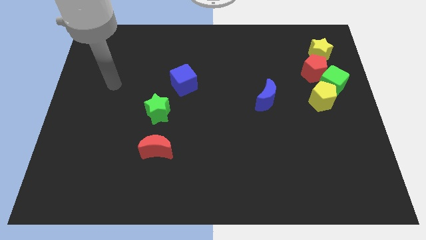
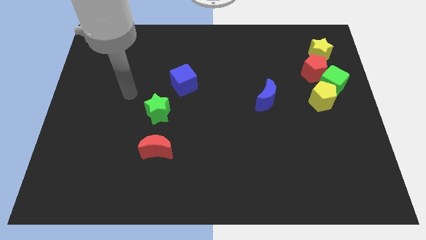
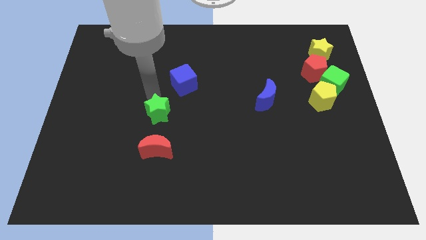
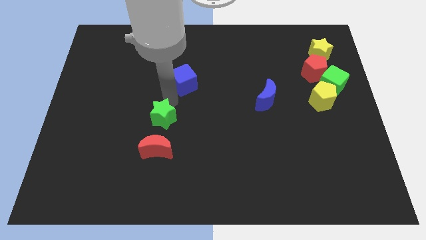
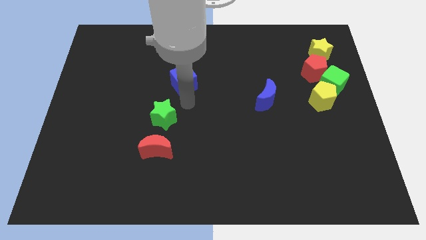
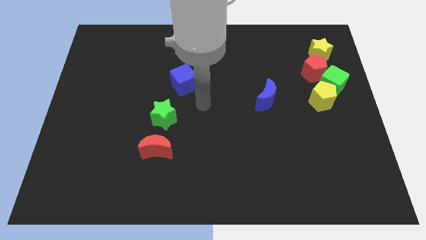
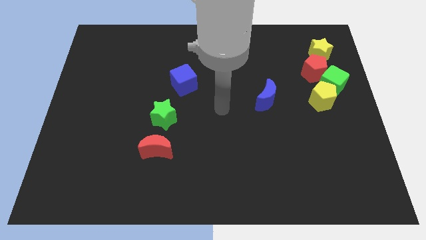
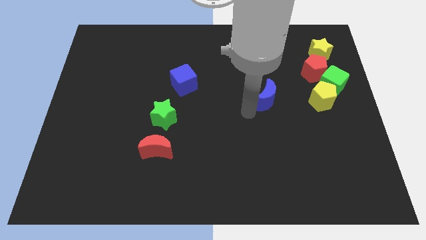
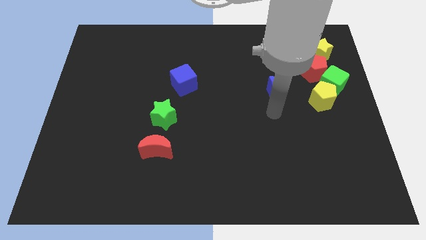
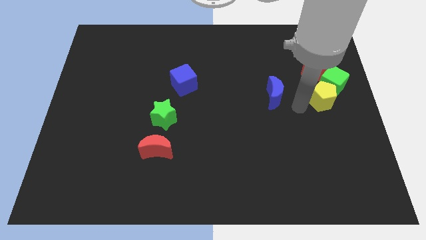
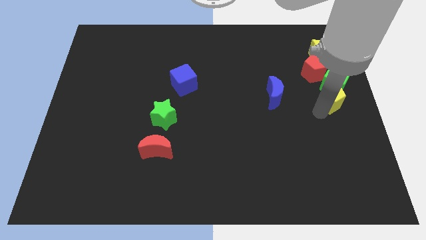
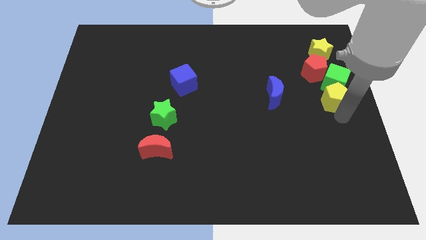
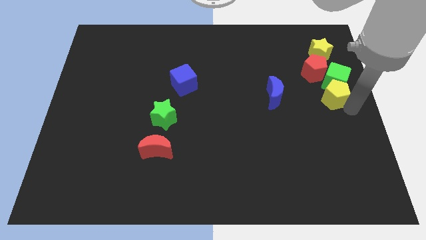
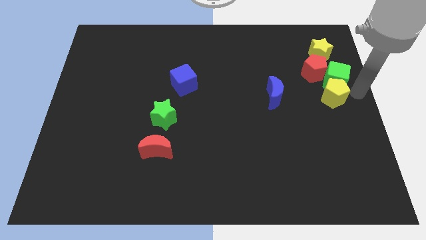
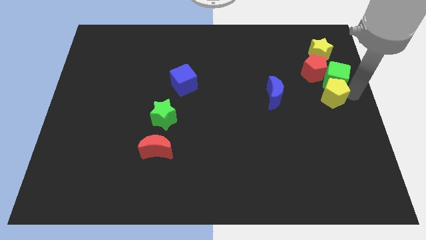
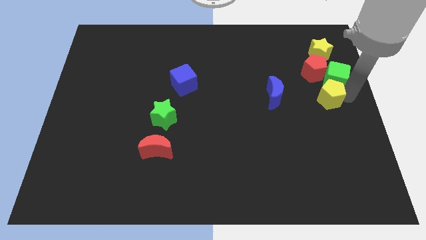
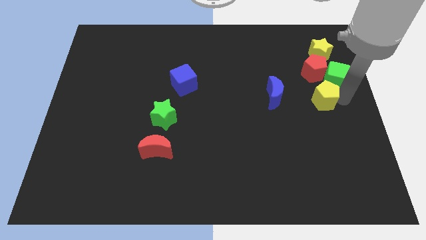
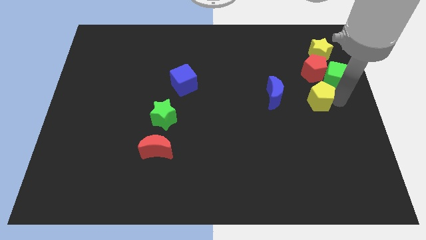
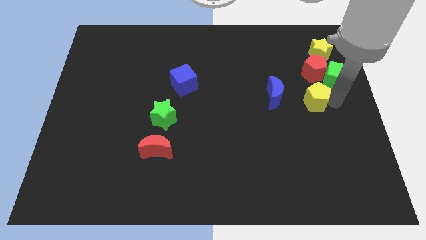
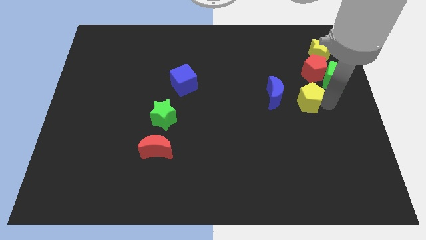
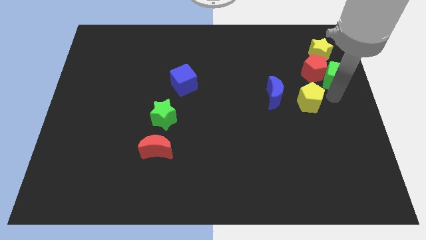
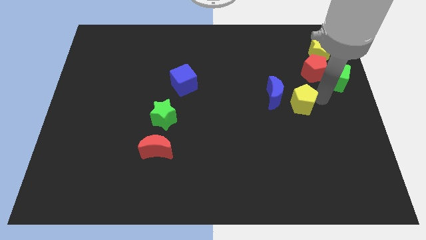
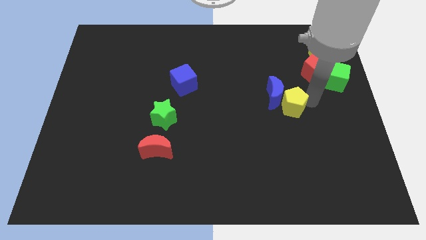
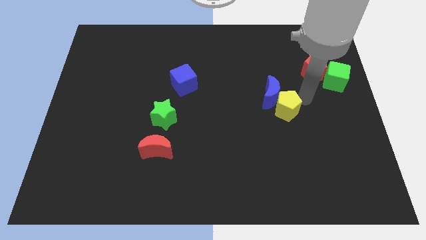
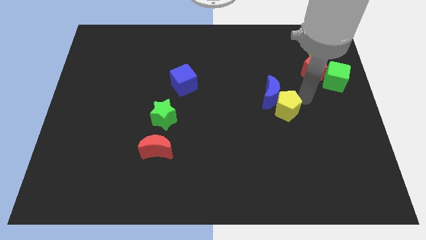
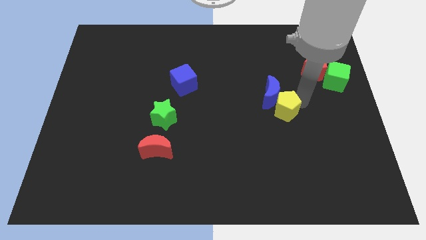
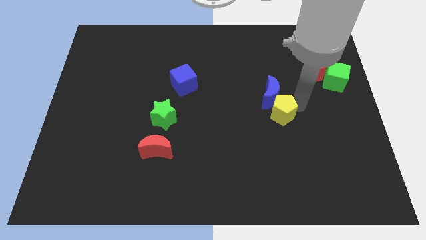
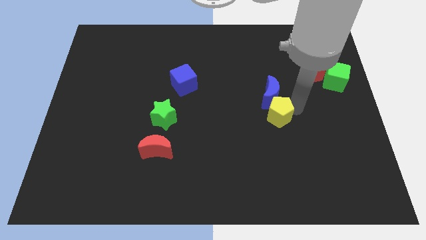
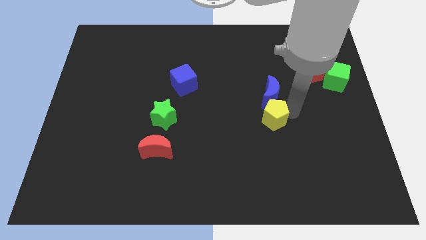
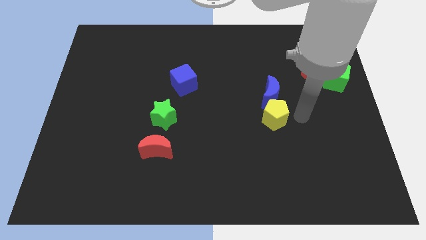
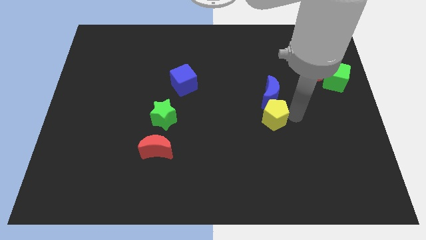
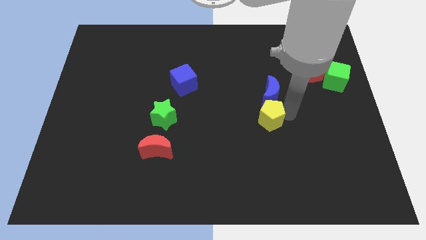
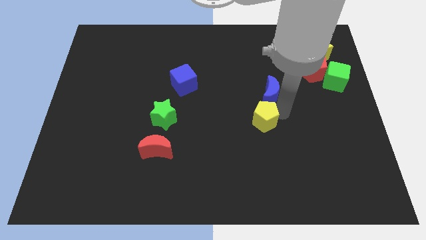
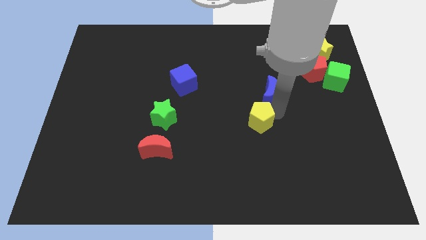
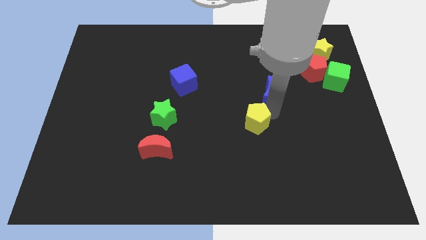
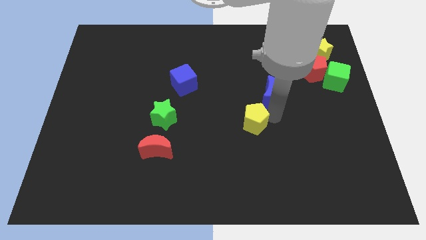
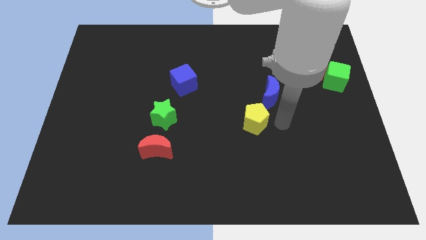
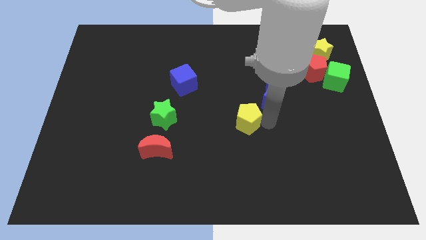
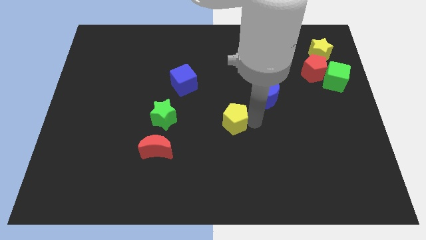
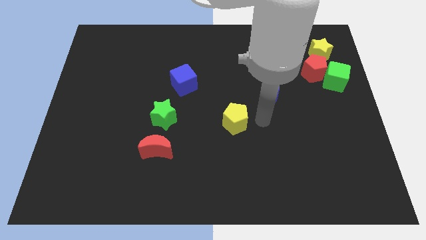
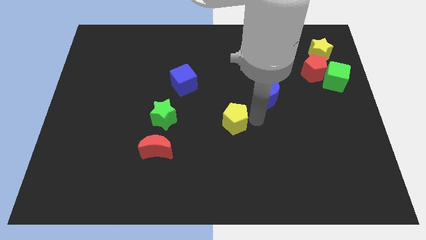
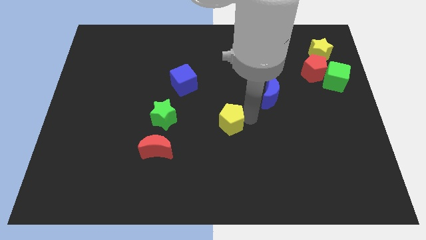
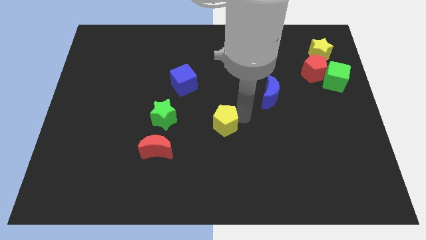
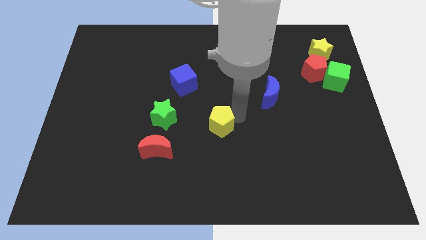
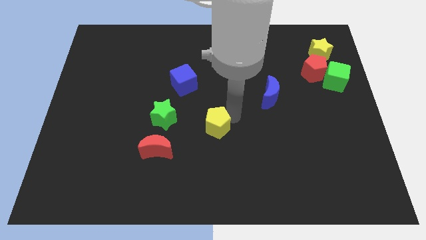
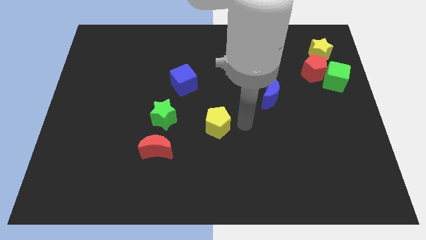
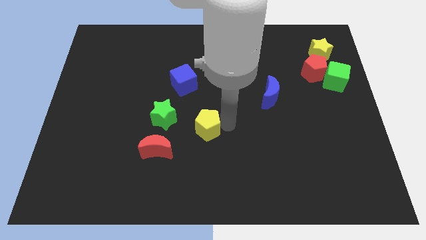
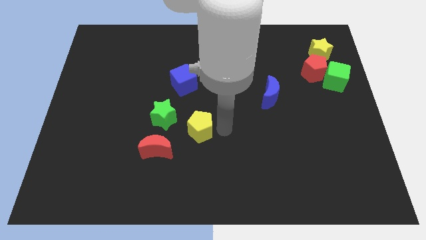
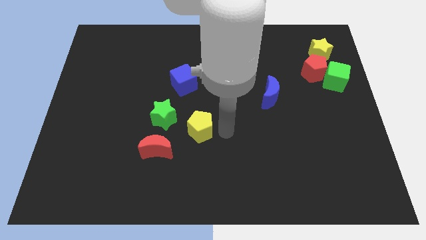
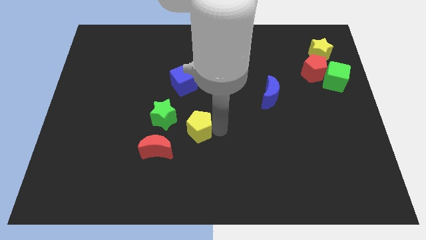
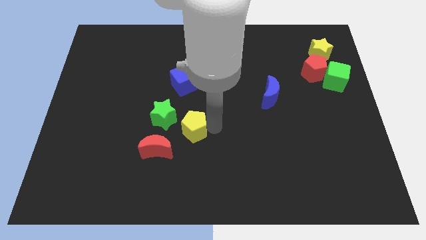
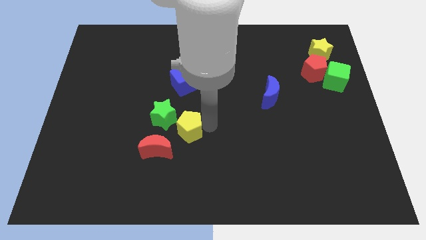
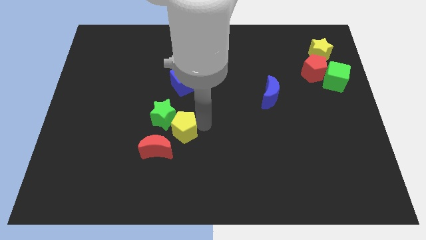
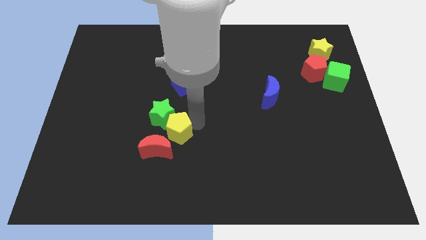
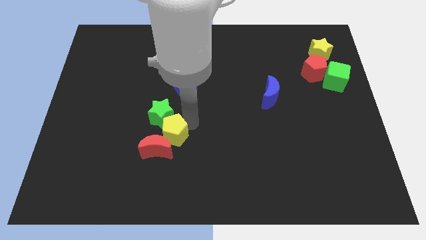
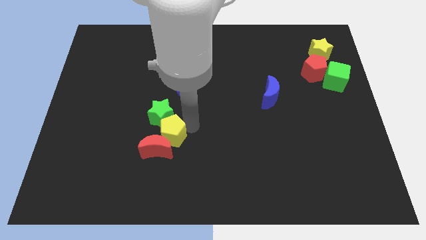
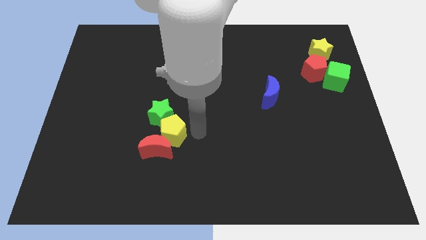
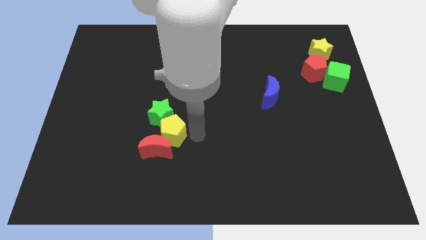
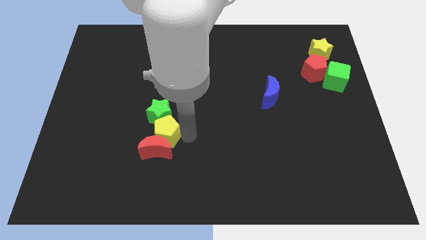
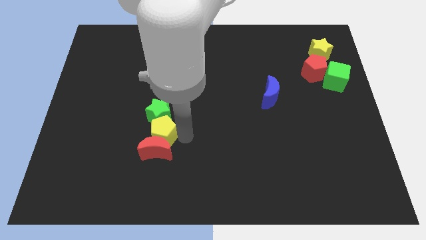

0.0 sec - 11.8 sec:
put the yellow pentagon diagonally down and to the left of the green star

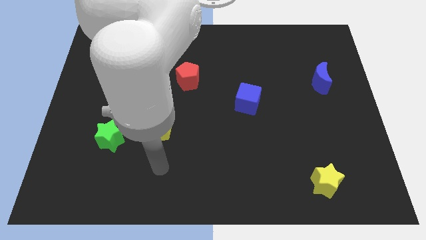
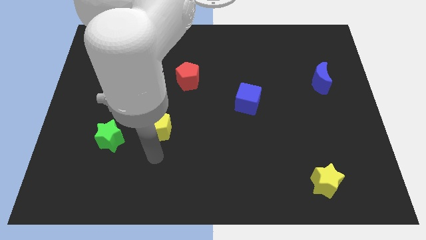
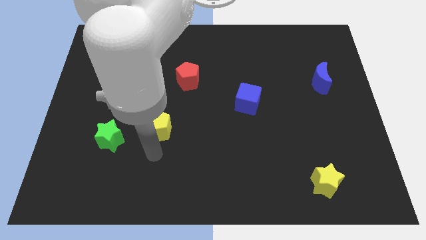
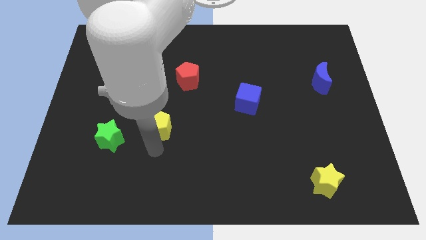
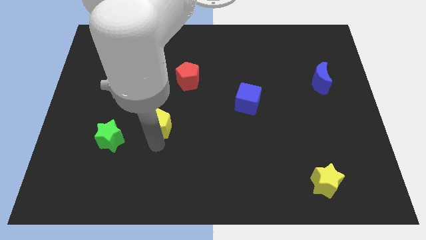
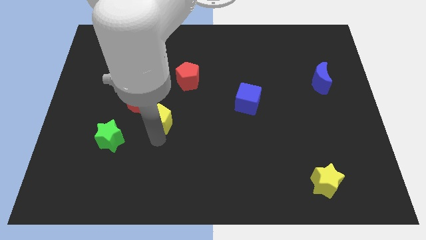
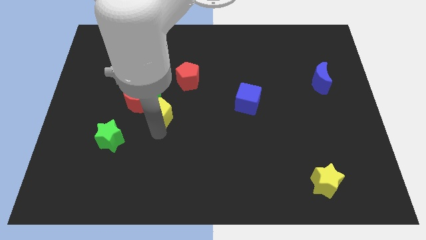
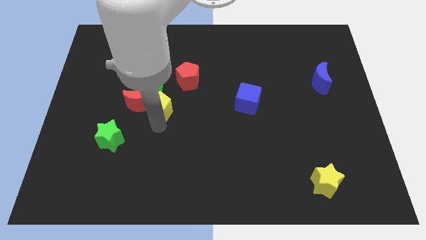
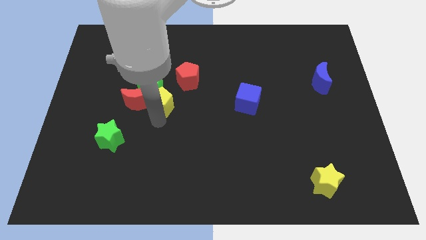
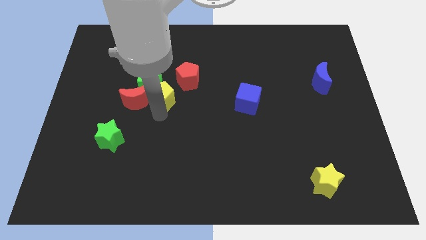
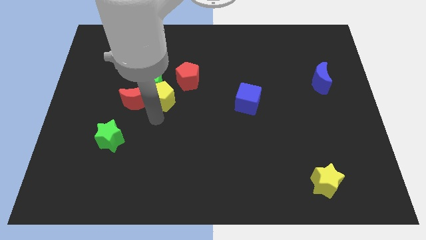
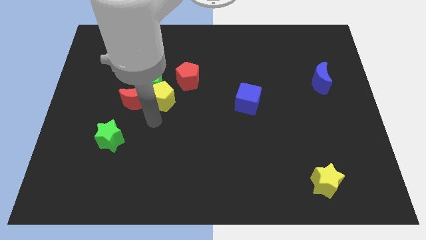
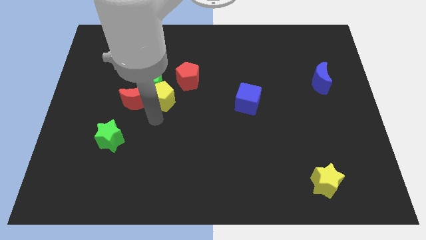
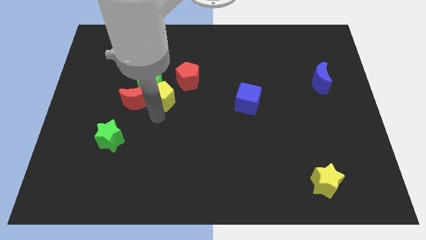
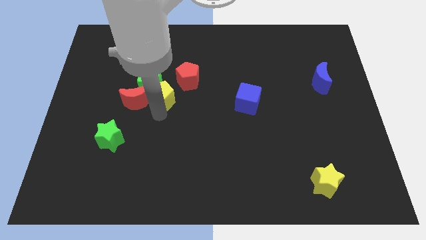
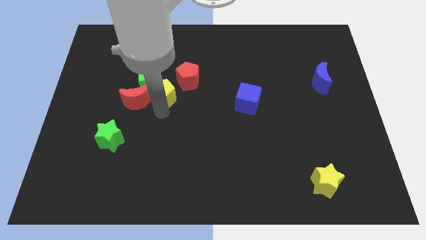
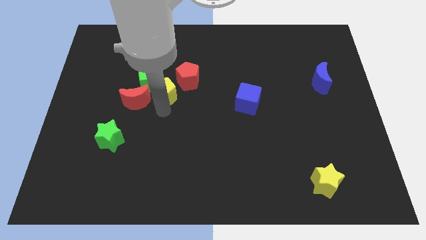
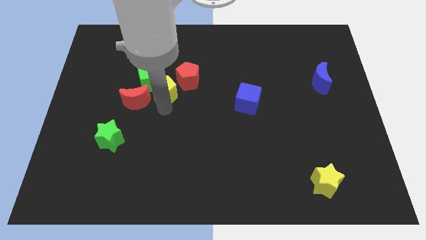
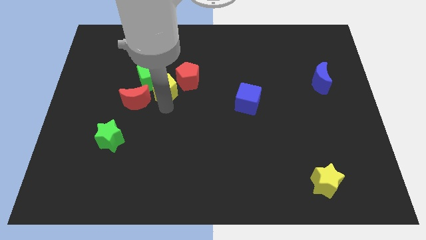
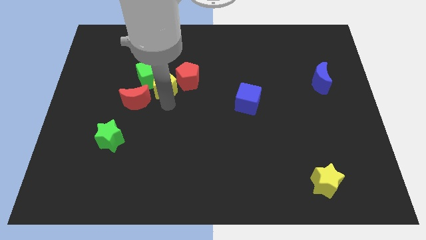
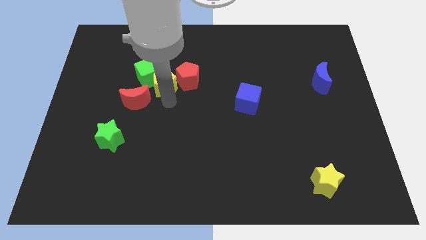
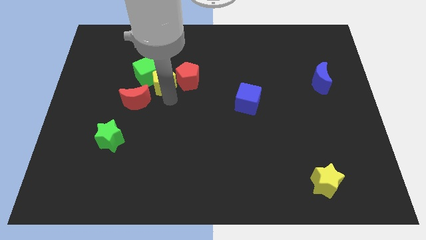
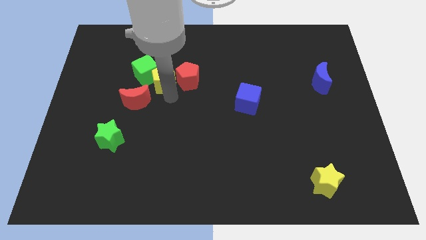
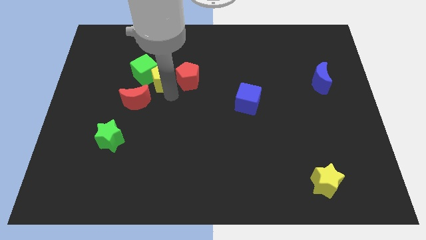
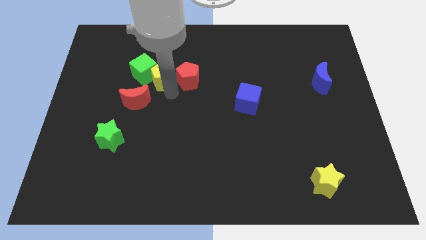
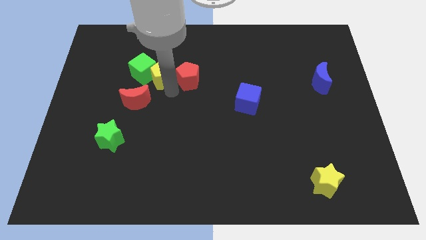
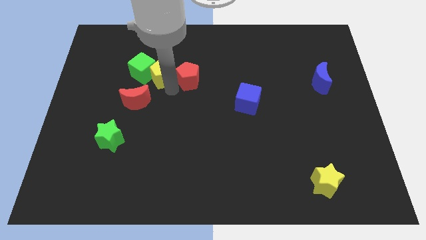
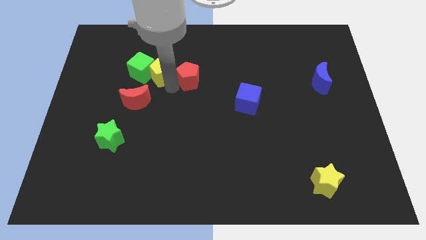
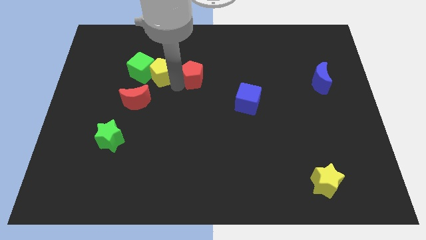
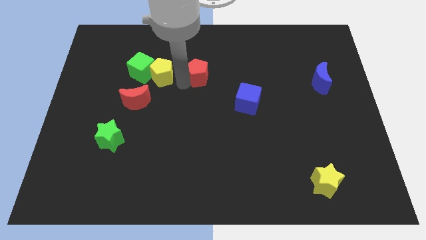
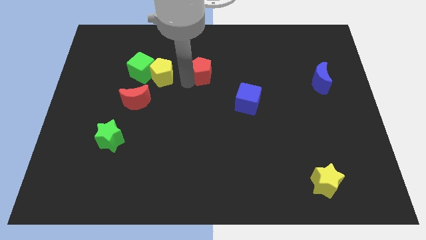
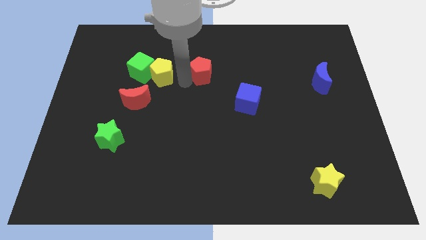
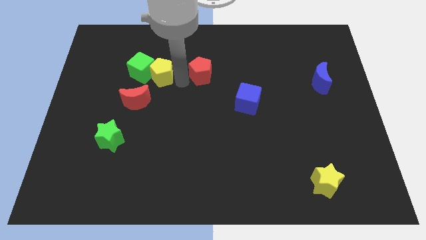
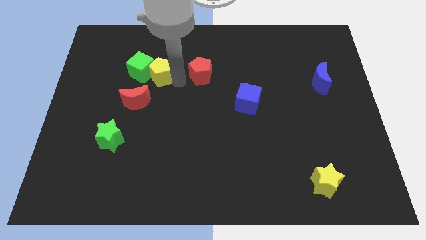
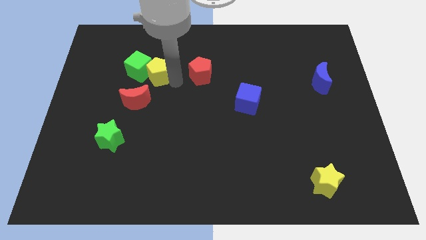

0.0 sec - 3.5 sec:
move the yellow pentagon to the top of the red moon
